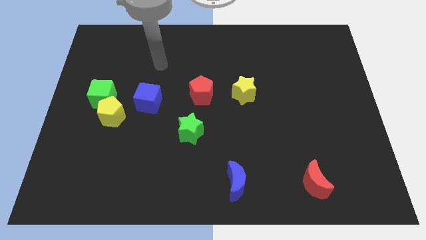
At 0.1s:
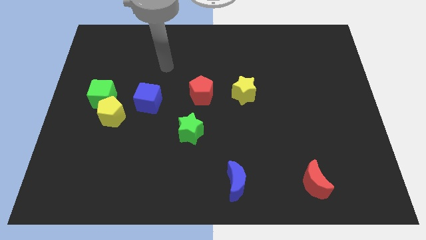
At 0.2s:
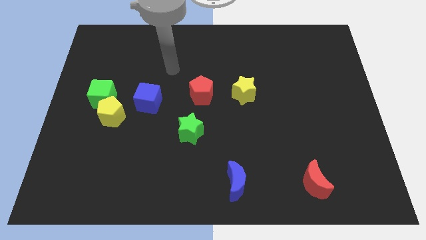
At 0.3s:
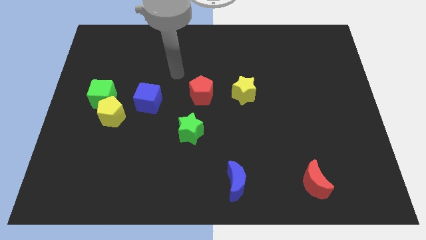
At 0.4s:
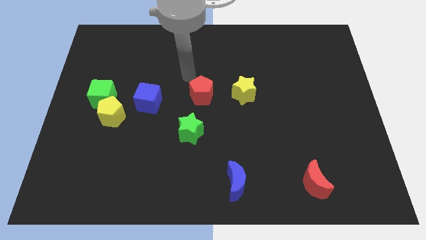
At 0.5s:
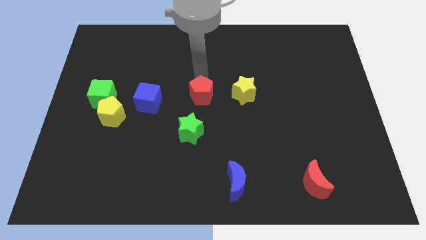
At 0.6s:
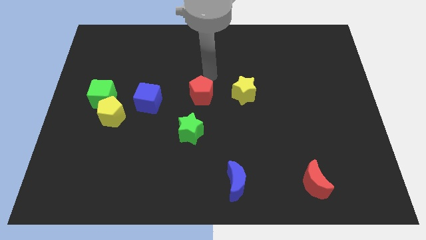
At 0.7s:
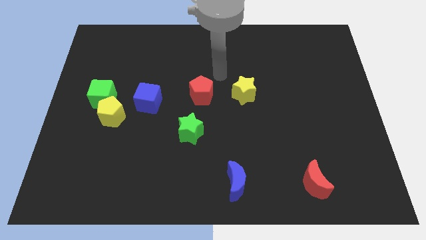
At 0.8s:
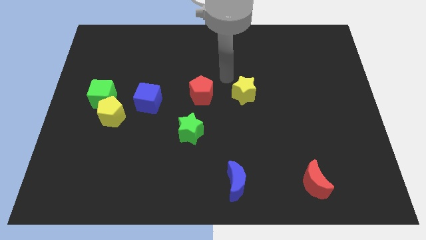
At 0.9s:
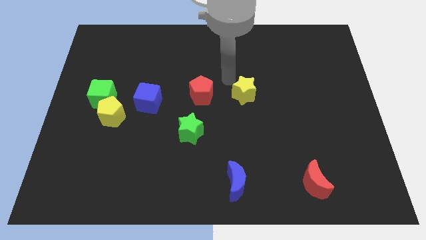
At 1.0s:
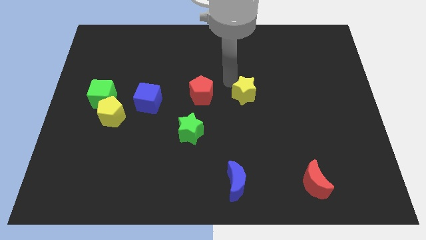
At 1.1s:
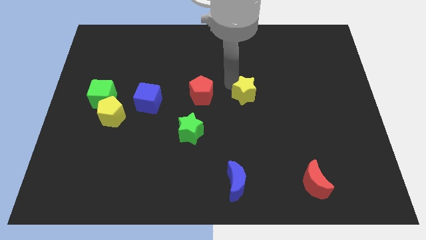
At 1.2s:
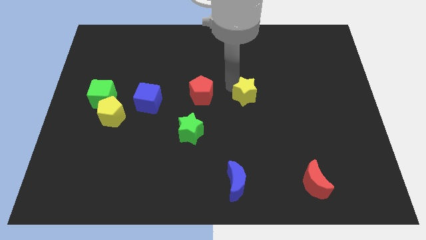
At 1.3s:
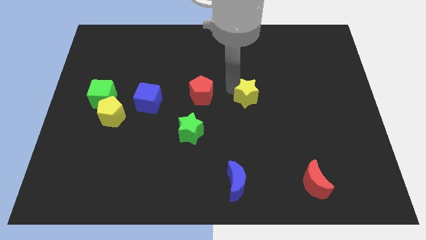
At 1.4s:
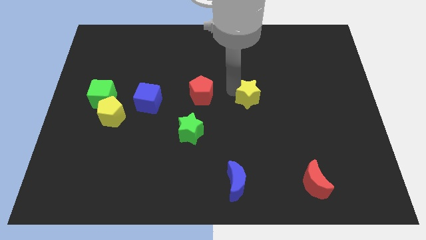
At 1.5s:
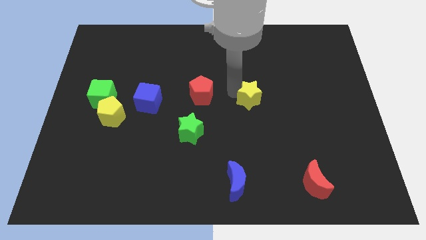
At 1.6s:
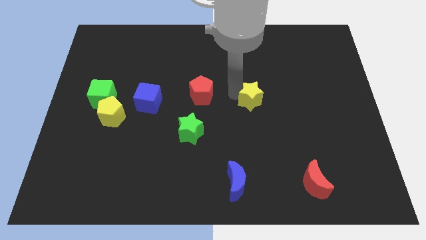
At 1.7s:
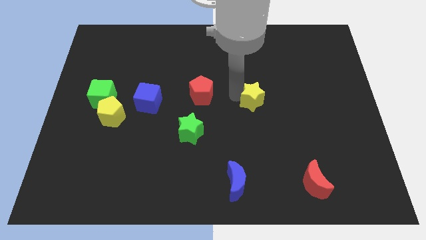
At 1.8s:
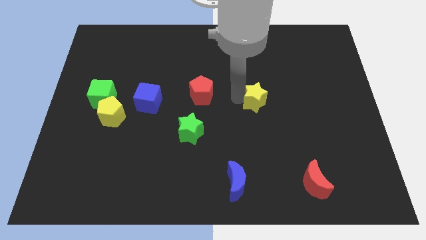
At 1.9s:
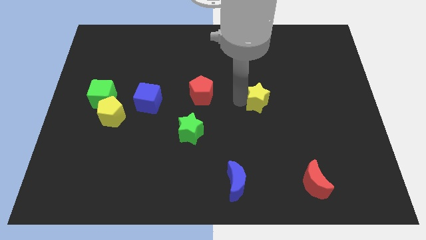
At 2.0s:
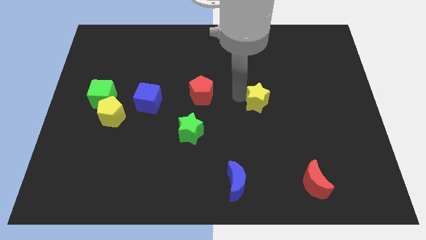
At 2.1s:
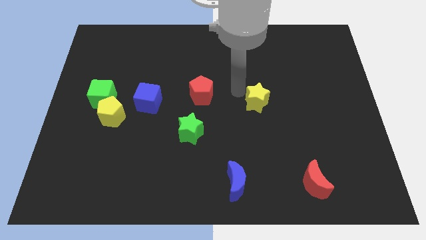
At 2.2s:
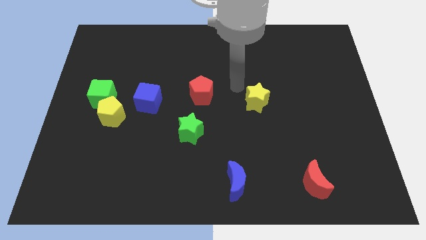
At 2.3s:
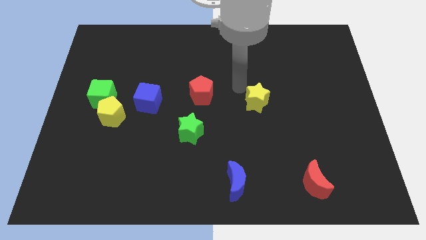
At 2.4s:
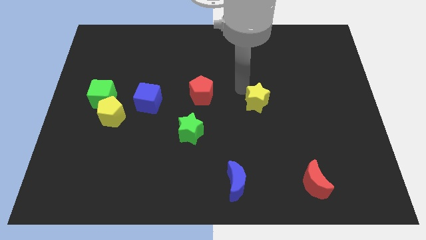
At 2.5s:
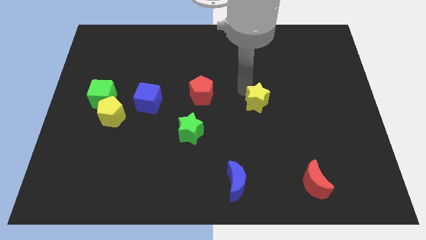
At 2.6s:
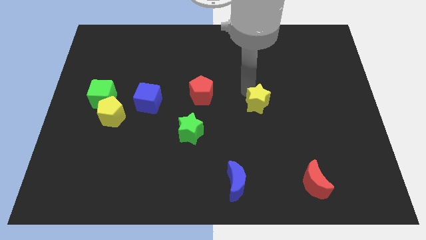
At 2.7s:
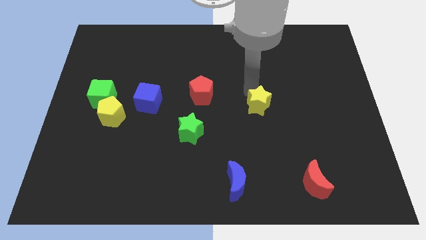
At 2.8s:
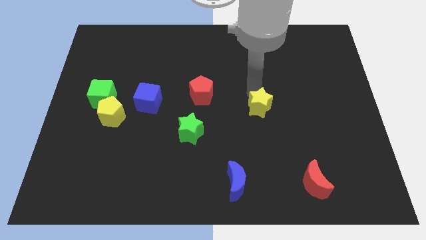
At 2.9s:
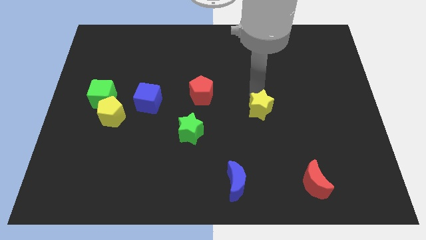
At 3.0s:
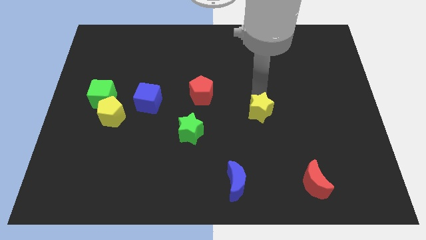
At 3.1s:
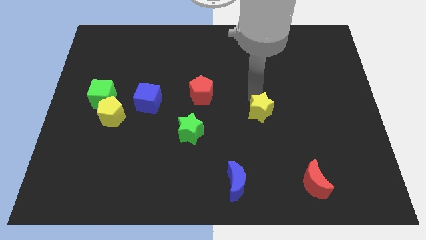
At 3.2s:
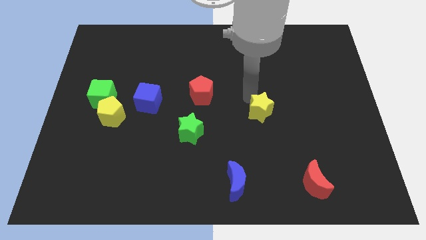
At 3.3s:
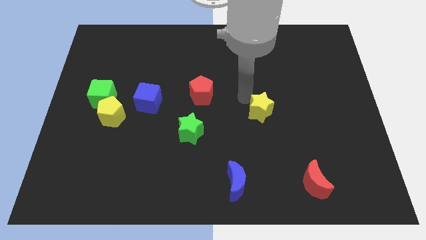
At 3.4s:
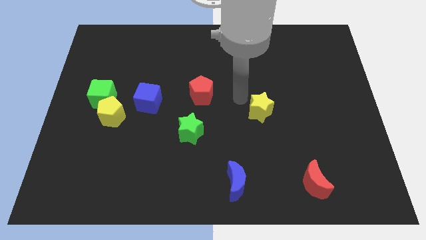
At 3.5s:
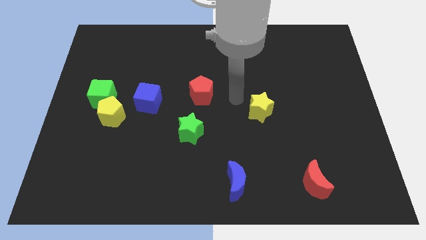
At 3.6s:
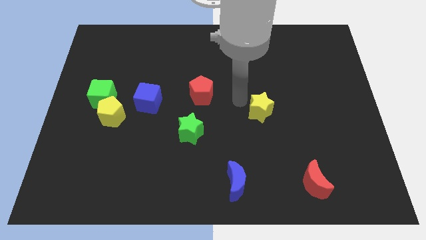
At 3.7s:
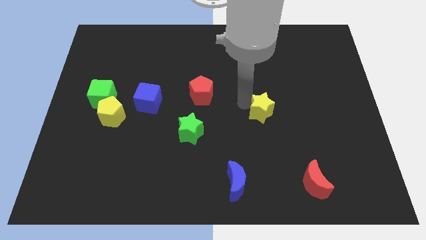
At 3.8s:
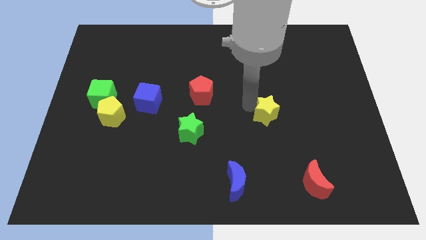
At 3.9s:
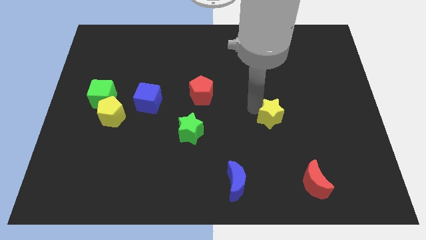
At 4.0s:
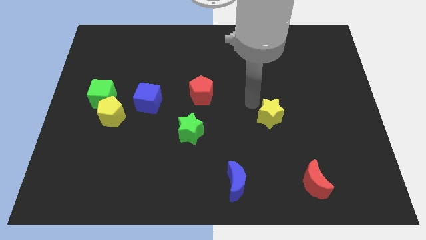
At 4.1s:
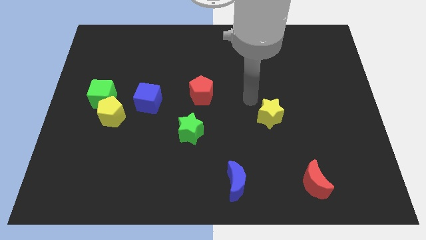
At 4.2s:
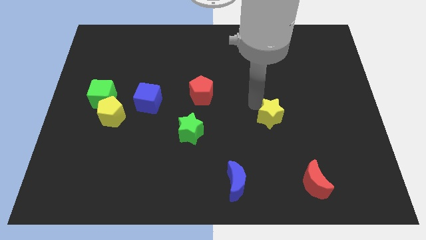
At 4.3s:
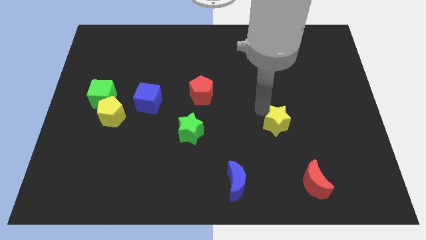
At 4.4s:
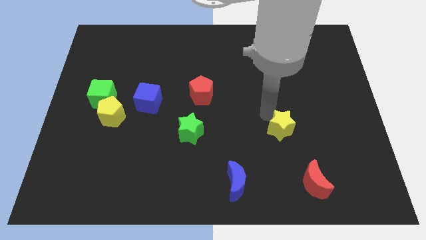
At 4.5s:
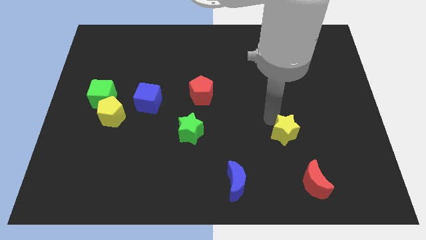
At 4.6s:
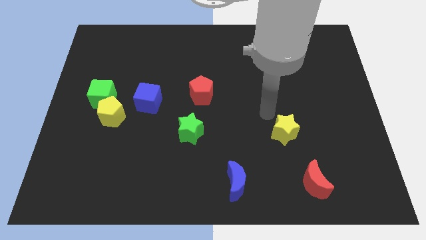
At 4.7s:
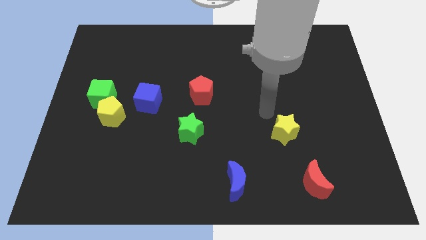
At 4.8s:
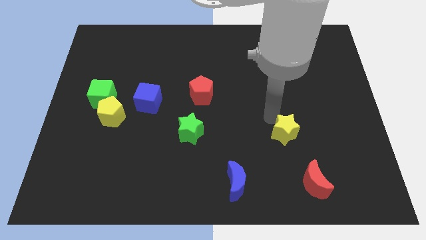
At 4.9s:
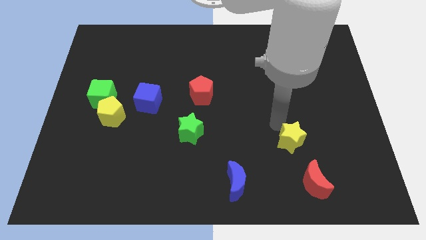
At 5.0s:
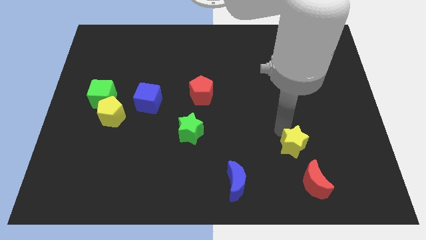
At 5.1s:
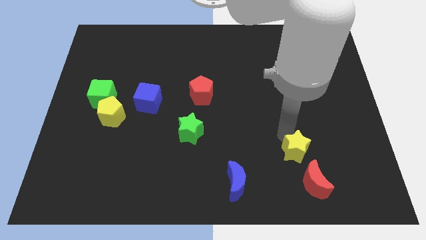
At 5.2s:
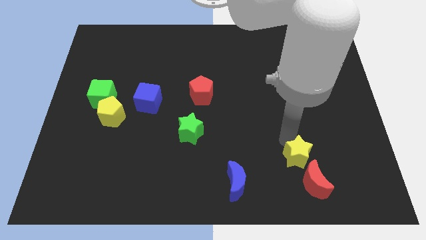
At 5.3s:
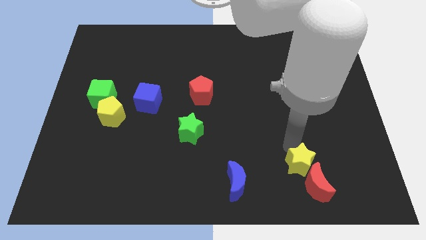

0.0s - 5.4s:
move the yellow star close to the red moon

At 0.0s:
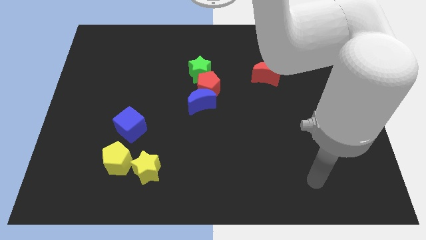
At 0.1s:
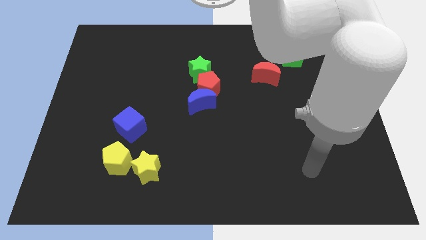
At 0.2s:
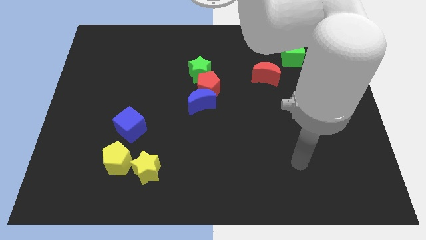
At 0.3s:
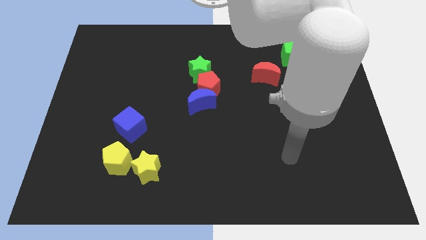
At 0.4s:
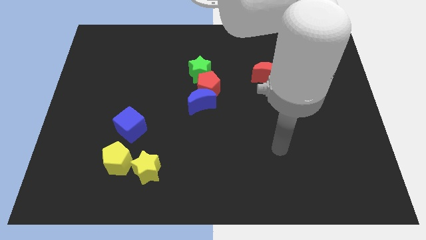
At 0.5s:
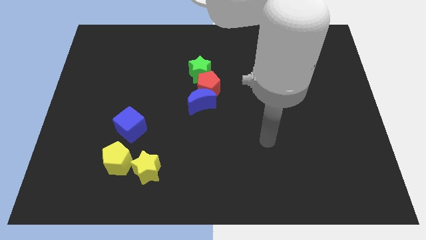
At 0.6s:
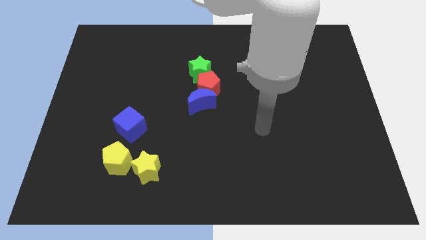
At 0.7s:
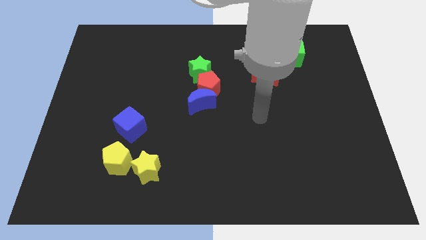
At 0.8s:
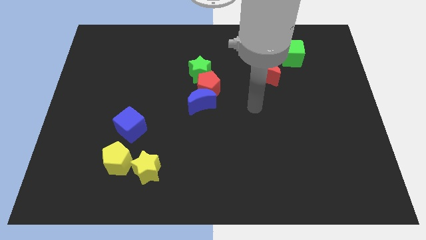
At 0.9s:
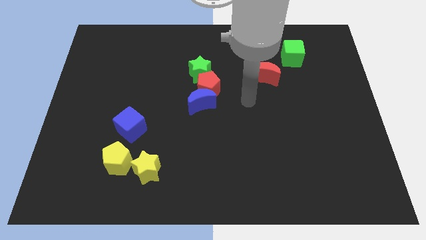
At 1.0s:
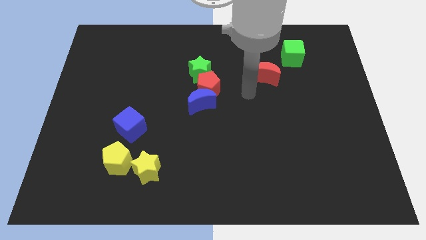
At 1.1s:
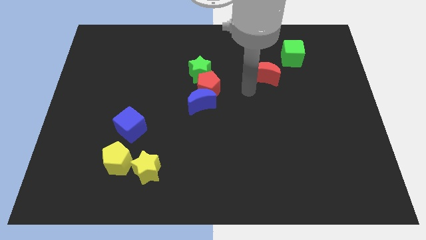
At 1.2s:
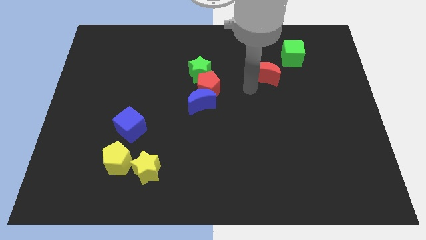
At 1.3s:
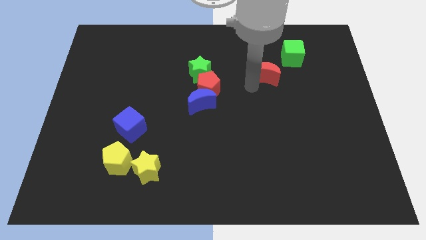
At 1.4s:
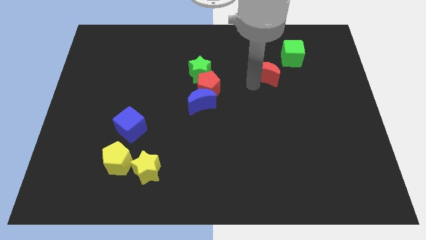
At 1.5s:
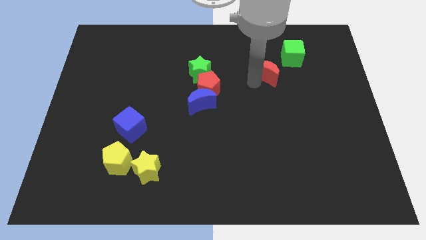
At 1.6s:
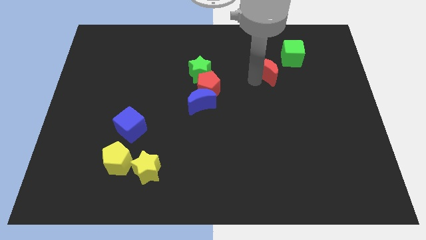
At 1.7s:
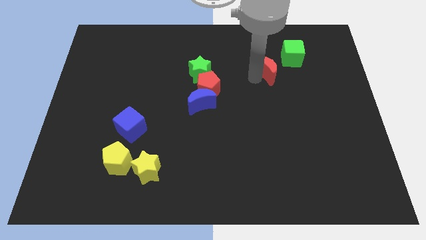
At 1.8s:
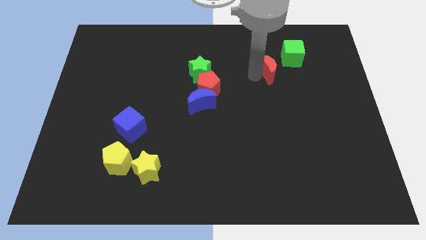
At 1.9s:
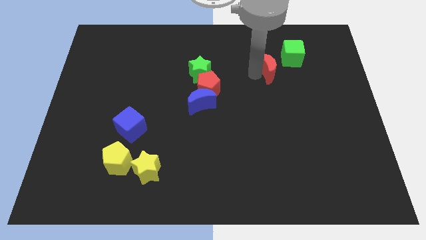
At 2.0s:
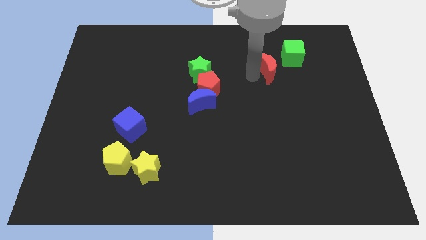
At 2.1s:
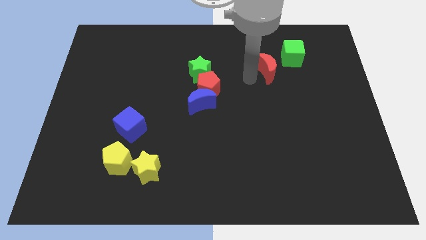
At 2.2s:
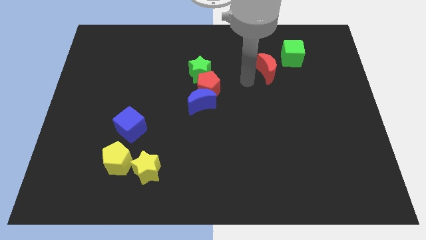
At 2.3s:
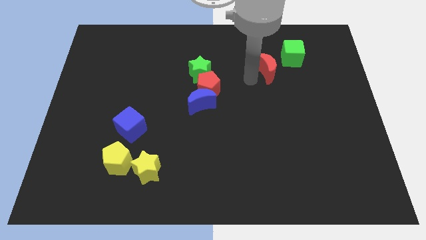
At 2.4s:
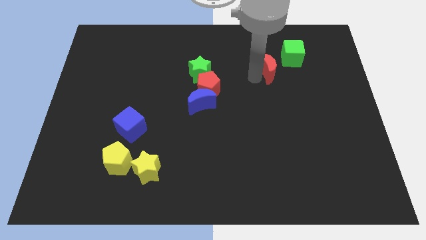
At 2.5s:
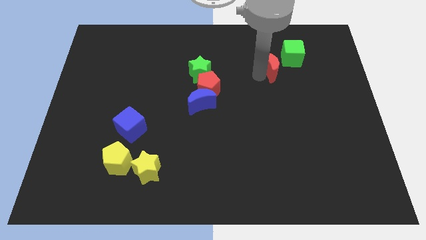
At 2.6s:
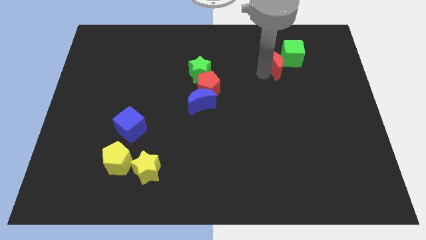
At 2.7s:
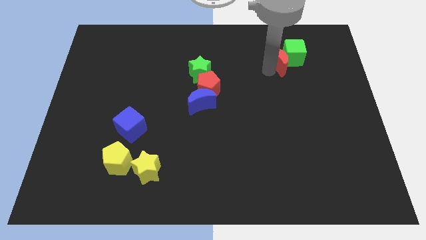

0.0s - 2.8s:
push the red moon to the green cube
